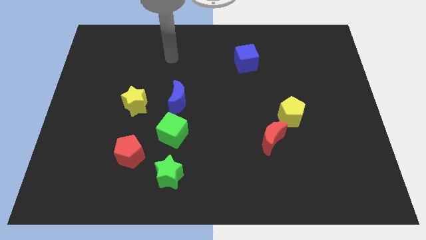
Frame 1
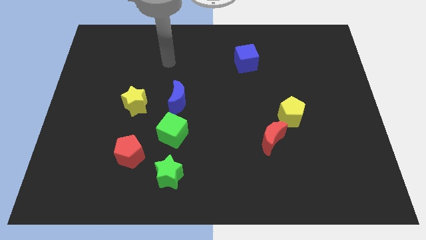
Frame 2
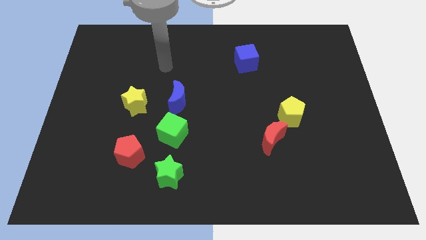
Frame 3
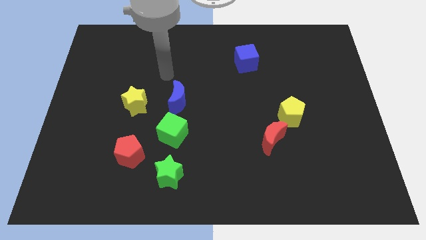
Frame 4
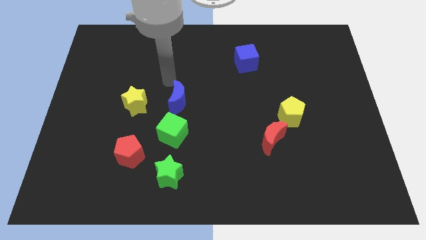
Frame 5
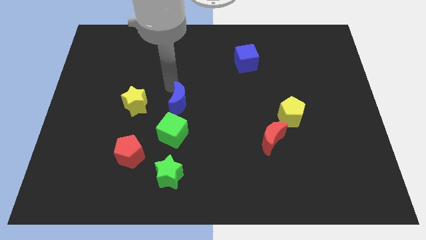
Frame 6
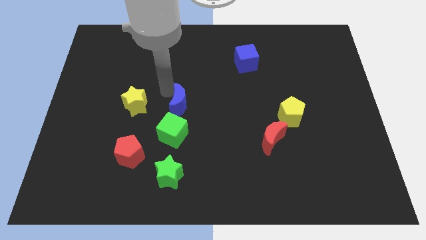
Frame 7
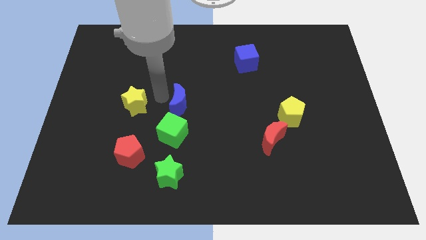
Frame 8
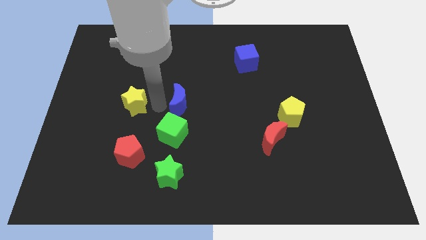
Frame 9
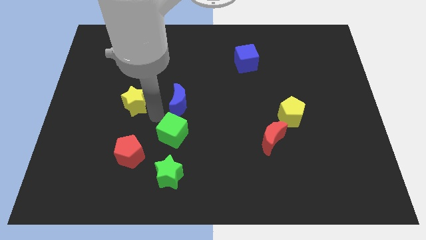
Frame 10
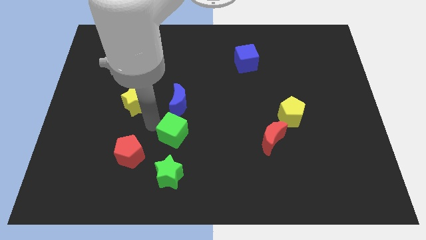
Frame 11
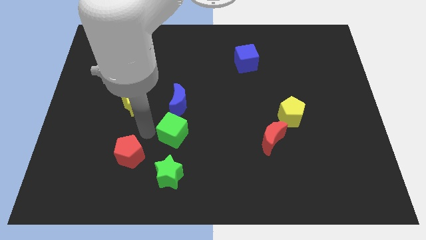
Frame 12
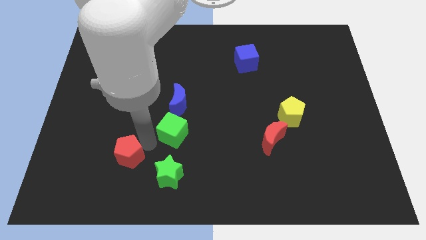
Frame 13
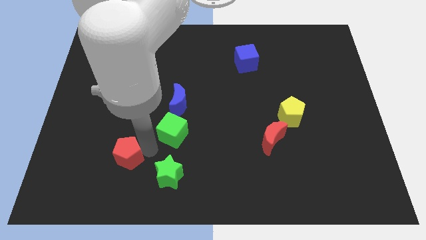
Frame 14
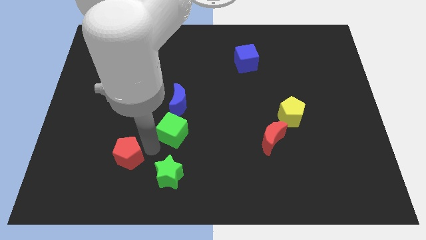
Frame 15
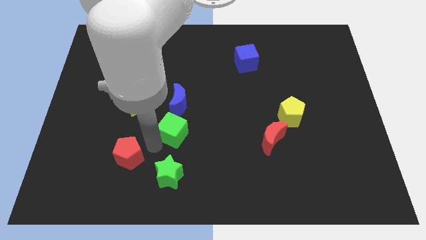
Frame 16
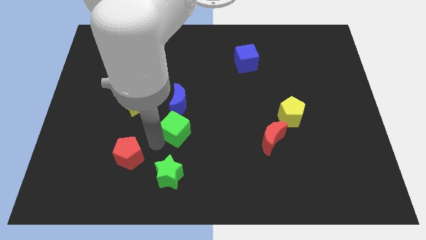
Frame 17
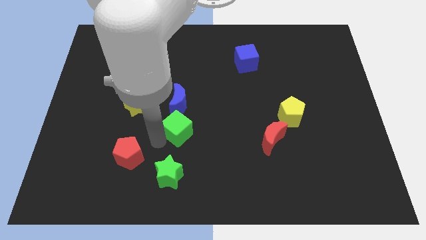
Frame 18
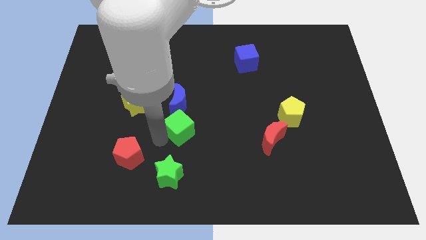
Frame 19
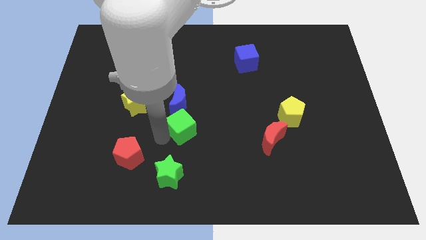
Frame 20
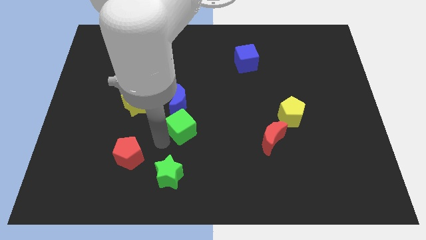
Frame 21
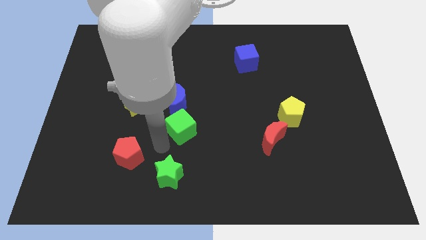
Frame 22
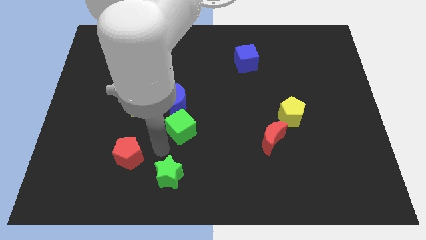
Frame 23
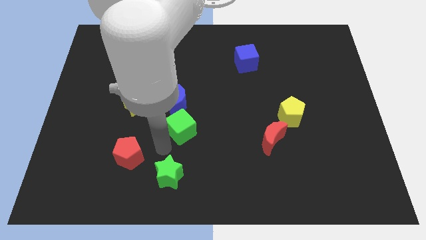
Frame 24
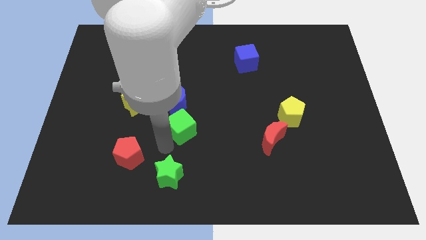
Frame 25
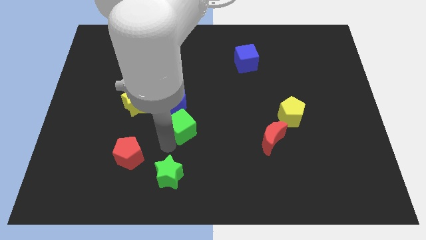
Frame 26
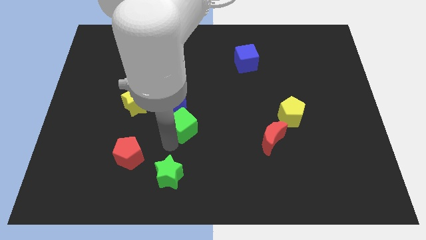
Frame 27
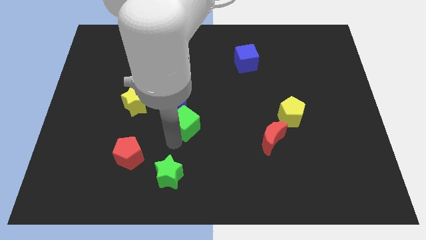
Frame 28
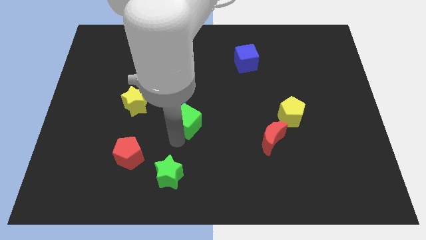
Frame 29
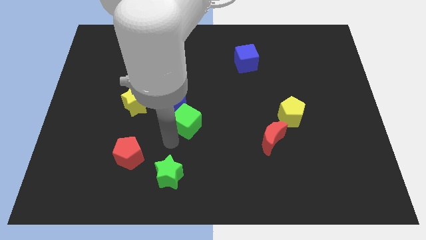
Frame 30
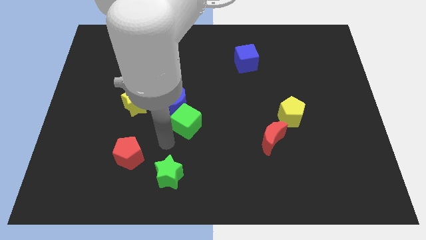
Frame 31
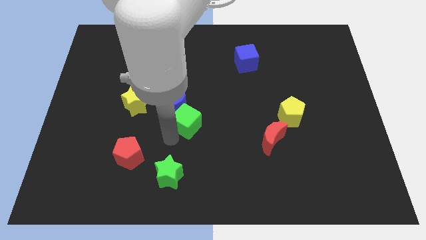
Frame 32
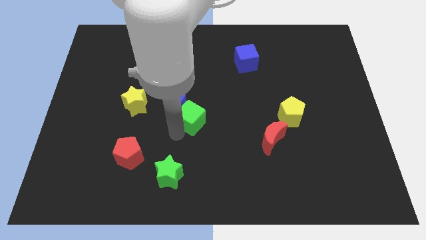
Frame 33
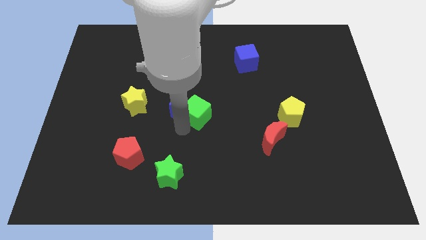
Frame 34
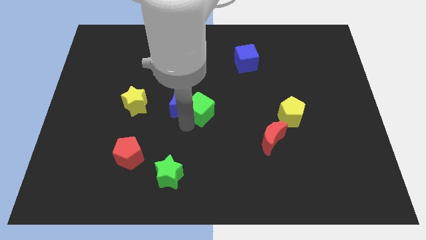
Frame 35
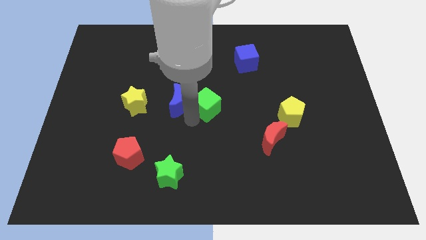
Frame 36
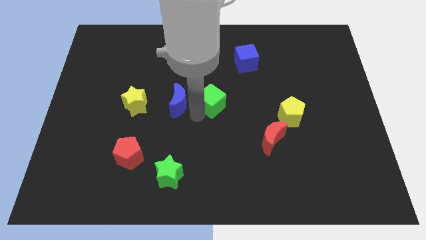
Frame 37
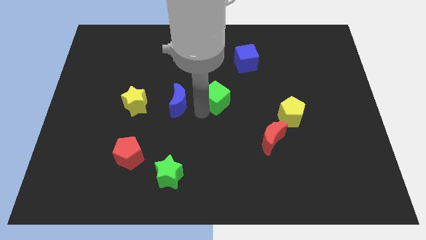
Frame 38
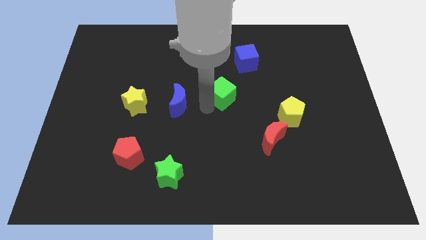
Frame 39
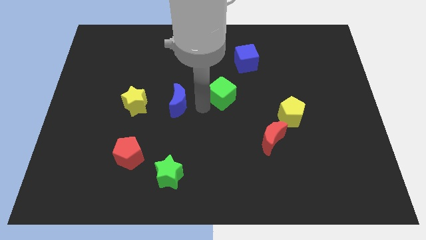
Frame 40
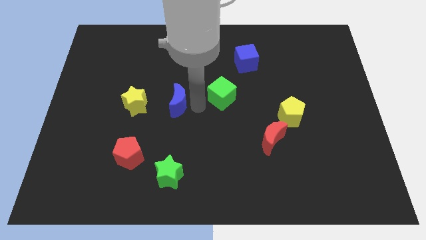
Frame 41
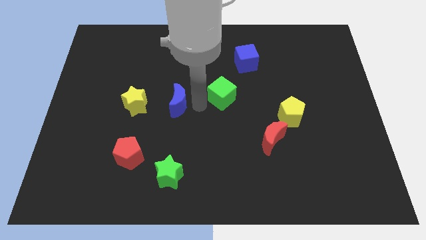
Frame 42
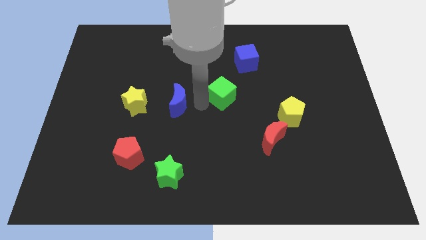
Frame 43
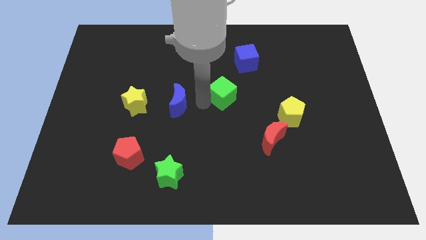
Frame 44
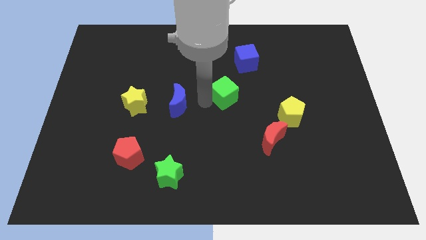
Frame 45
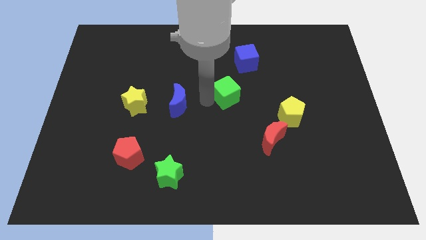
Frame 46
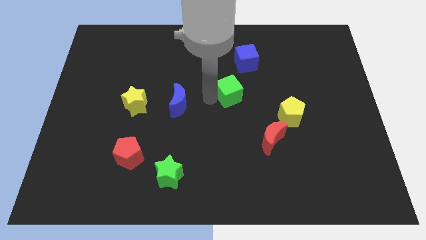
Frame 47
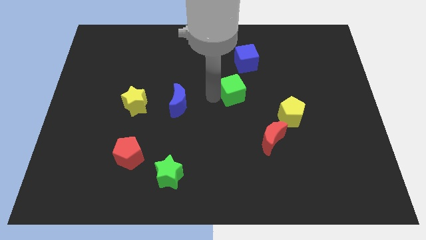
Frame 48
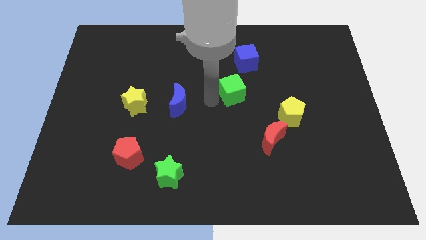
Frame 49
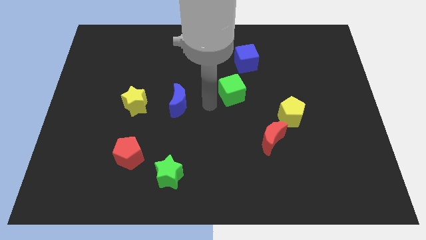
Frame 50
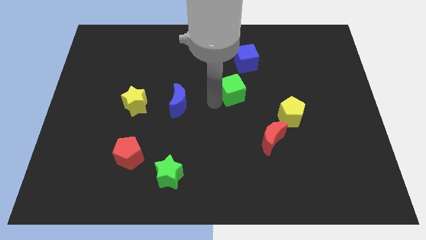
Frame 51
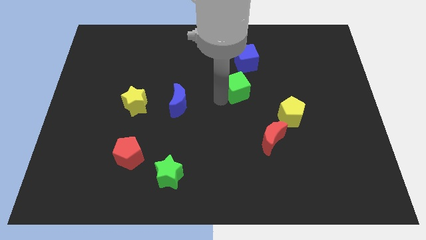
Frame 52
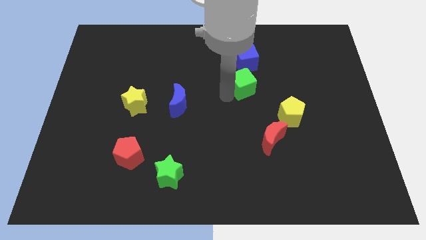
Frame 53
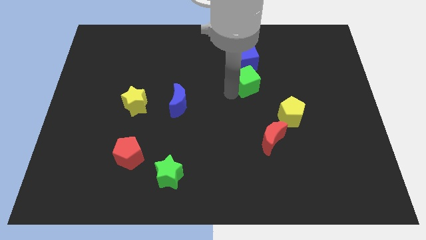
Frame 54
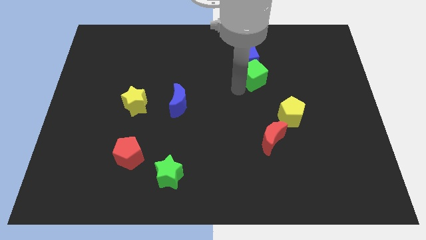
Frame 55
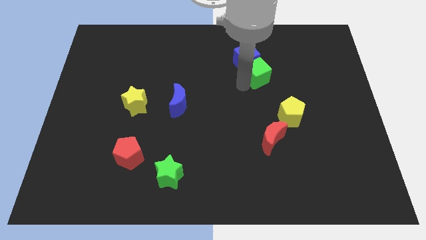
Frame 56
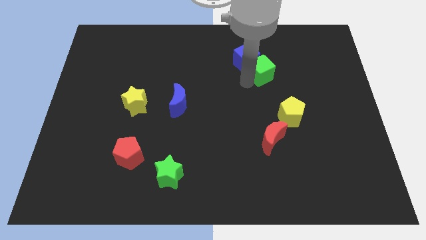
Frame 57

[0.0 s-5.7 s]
slide the green cube to the right of the blue cube

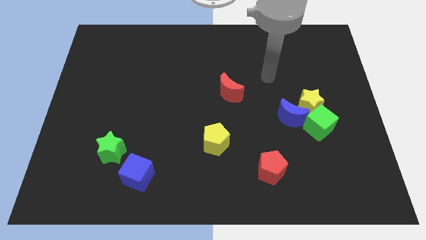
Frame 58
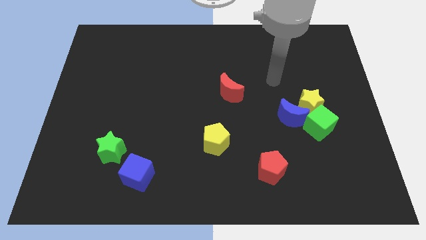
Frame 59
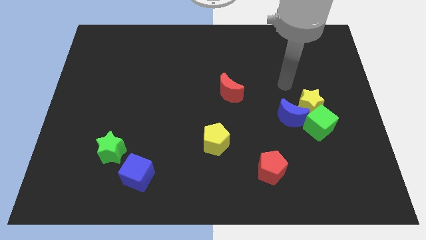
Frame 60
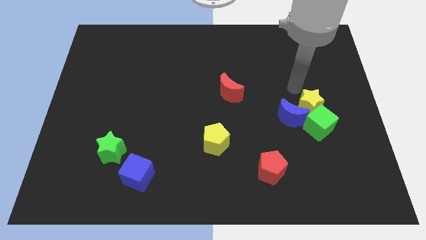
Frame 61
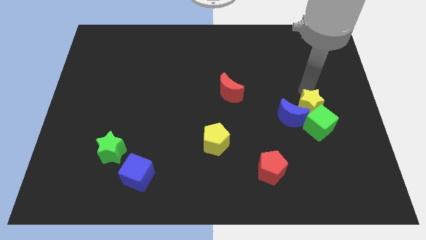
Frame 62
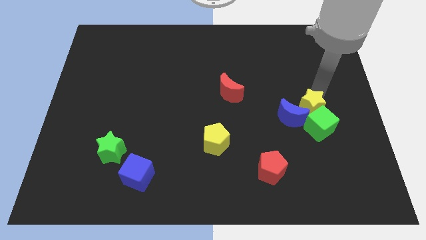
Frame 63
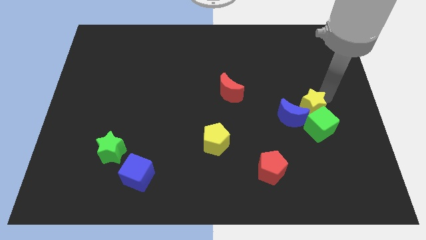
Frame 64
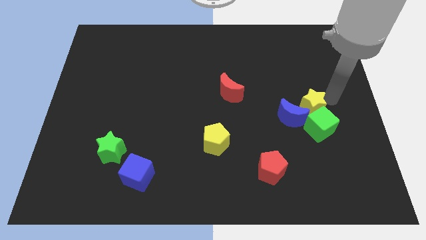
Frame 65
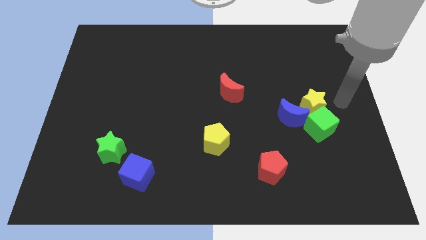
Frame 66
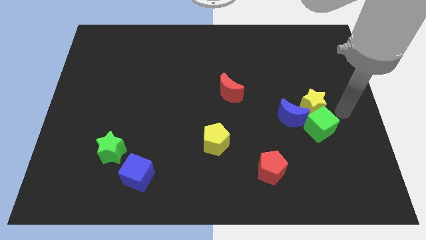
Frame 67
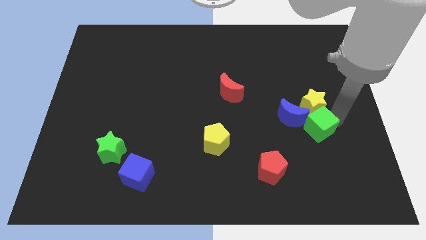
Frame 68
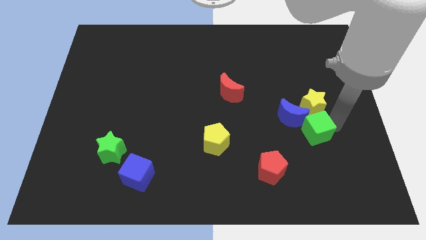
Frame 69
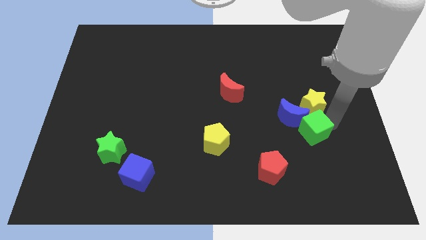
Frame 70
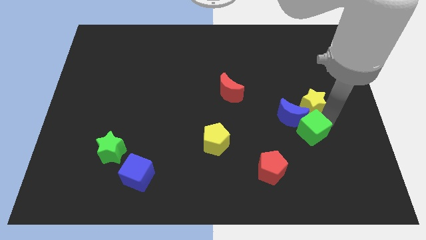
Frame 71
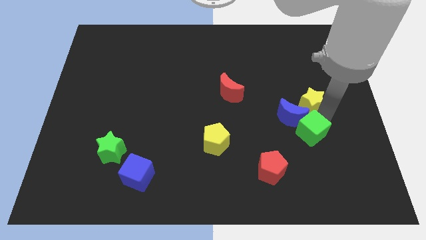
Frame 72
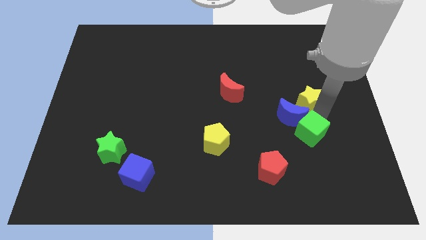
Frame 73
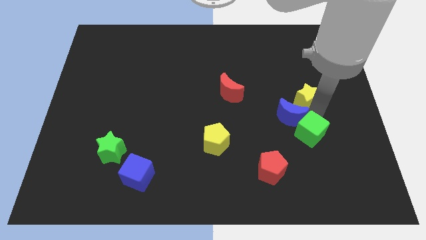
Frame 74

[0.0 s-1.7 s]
put the yellow star to the top side of the blue moon

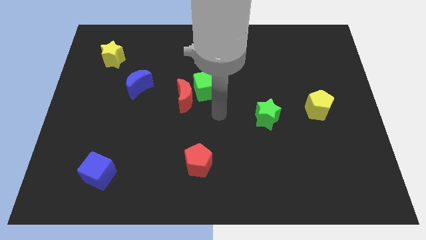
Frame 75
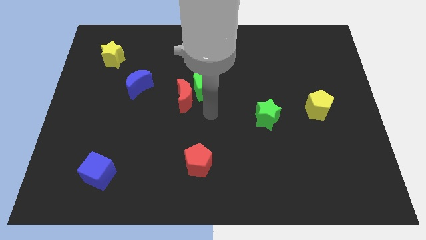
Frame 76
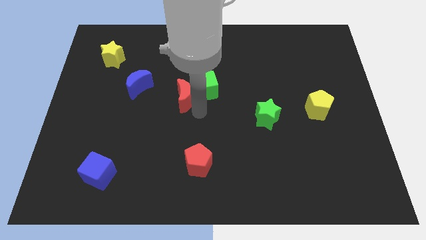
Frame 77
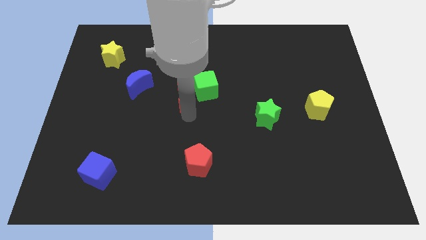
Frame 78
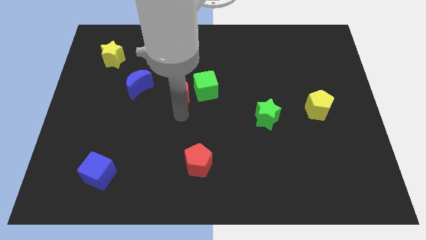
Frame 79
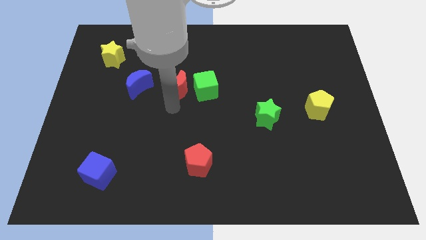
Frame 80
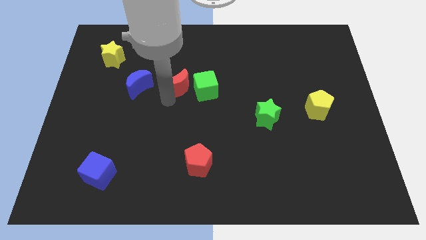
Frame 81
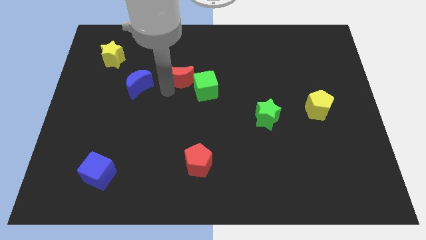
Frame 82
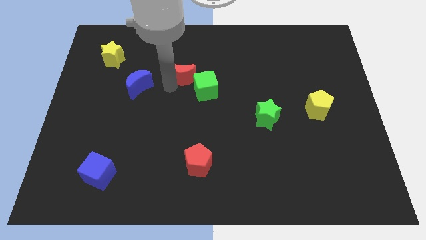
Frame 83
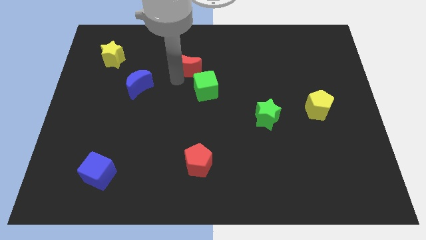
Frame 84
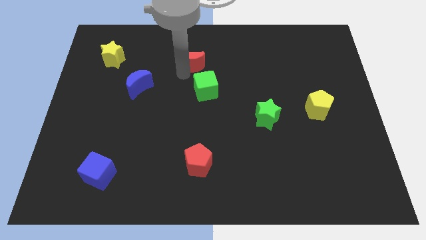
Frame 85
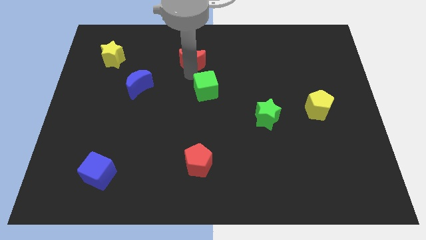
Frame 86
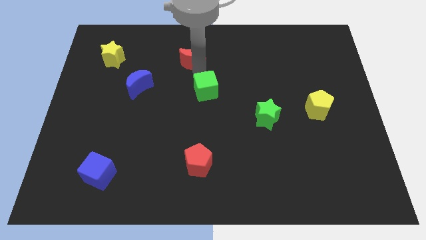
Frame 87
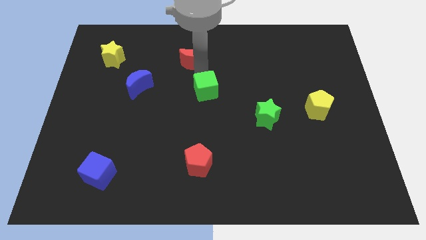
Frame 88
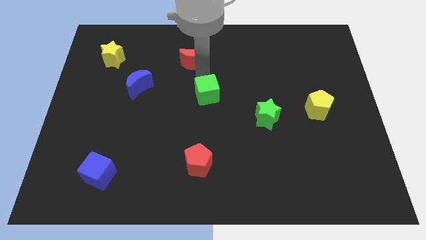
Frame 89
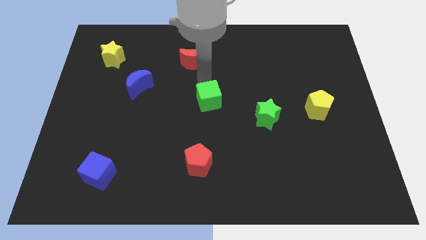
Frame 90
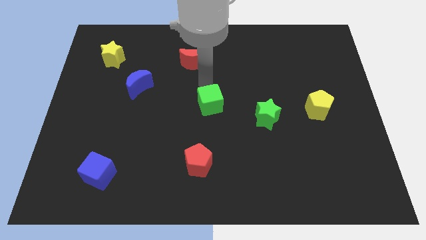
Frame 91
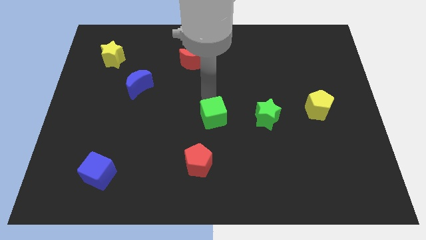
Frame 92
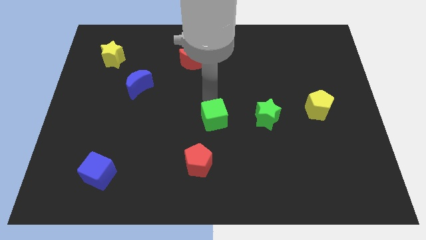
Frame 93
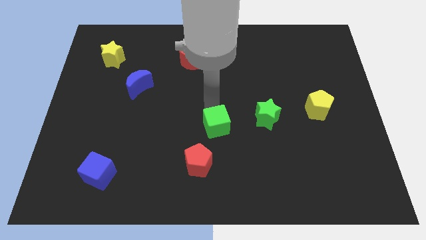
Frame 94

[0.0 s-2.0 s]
push the green cube diagonally up and to the right of the red pentagon
